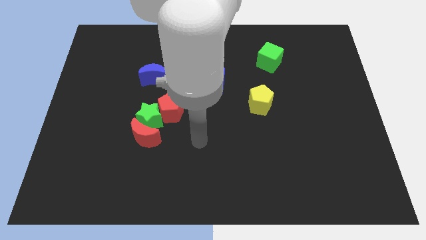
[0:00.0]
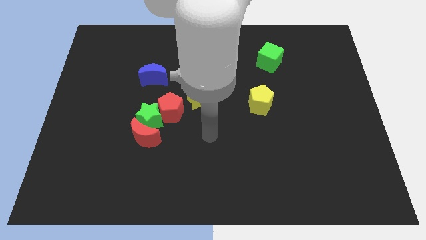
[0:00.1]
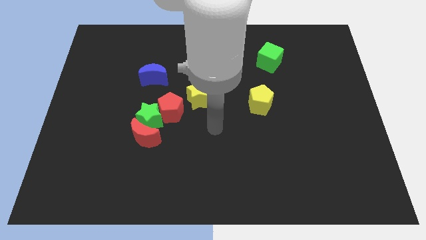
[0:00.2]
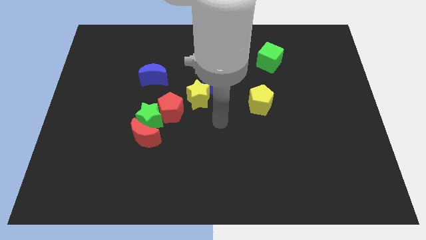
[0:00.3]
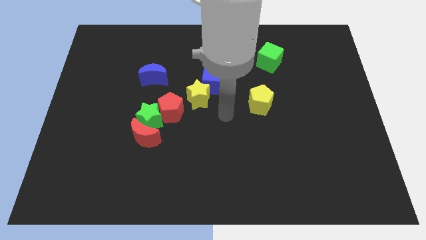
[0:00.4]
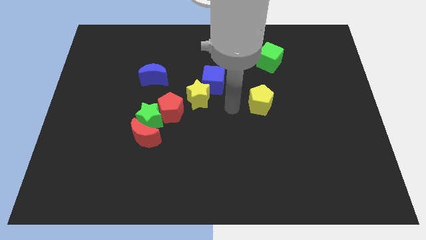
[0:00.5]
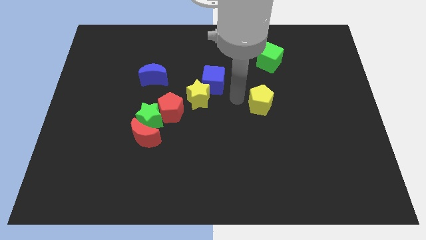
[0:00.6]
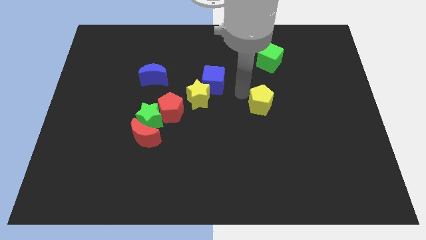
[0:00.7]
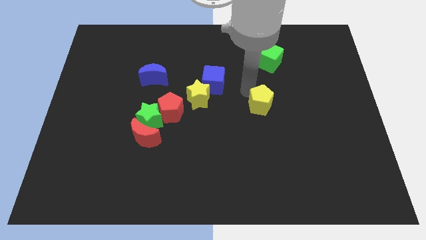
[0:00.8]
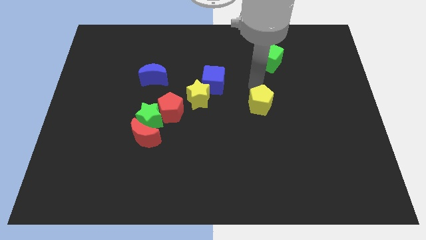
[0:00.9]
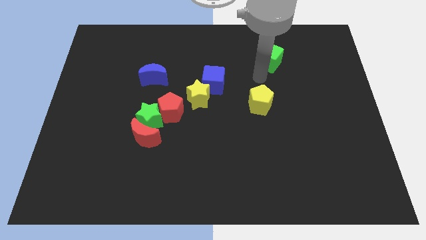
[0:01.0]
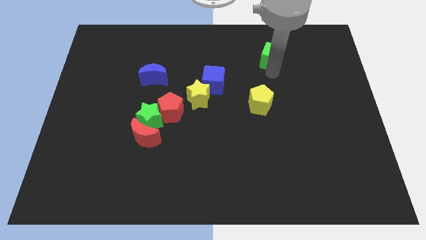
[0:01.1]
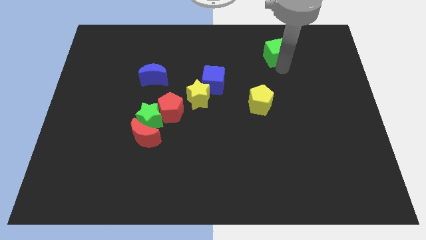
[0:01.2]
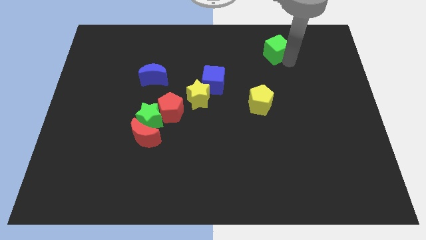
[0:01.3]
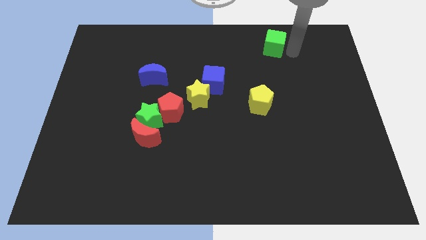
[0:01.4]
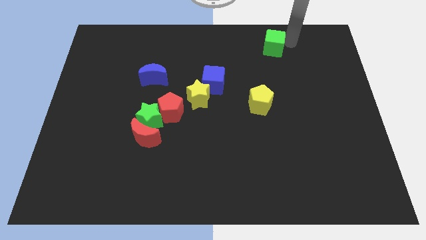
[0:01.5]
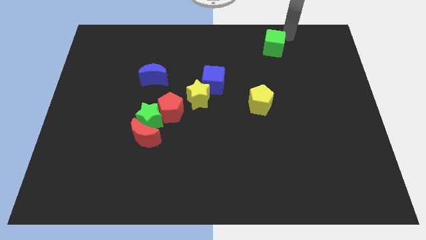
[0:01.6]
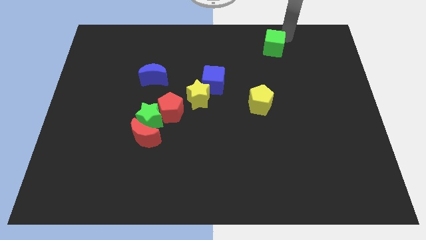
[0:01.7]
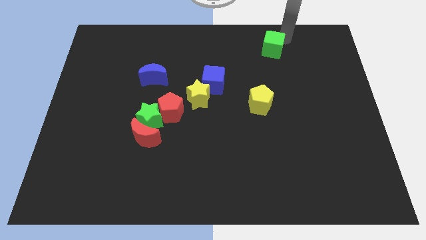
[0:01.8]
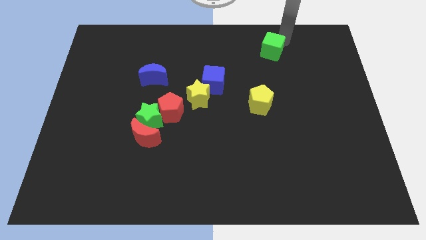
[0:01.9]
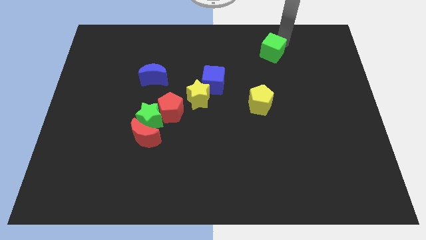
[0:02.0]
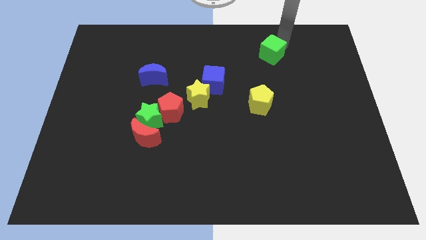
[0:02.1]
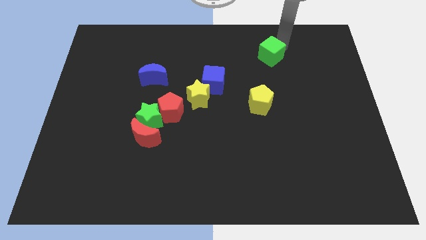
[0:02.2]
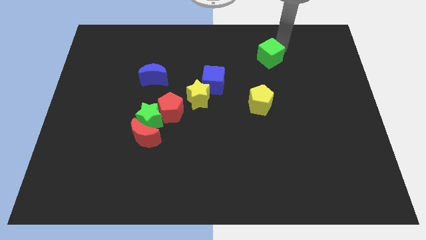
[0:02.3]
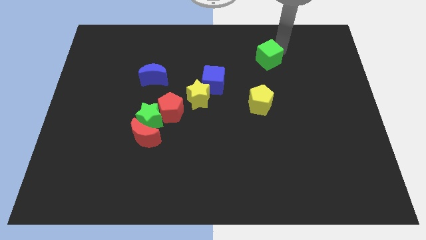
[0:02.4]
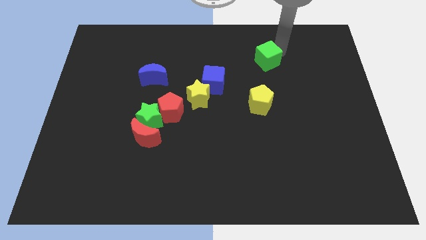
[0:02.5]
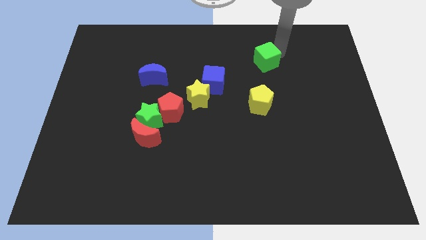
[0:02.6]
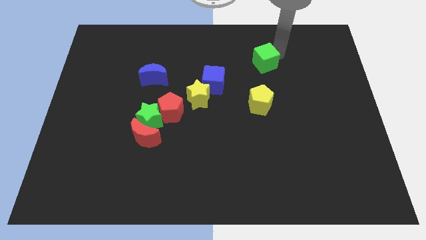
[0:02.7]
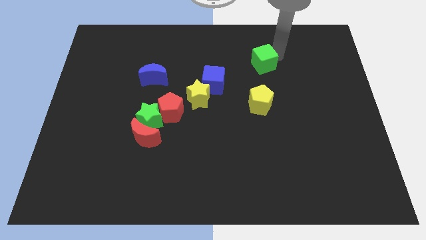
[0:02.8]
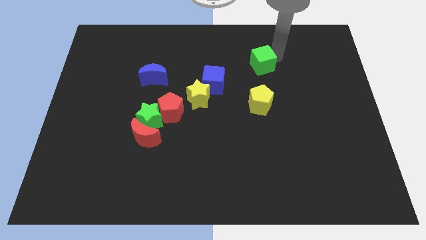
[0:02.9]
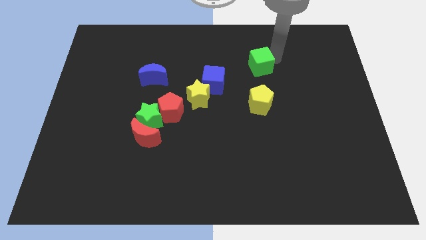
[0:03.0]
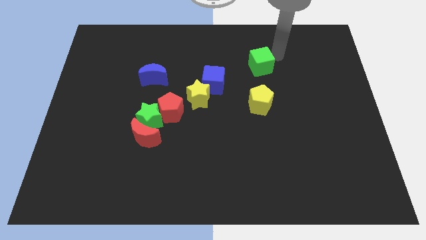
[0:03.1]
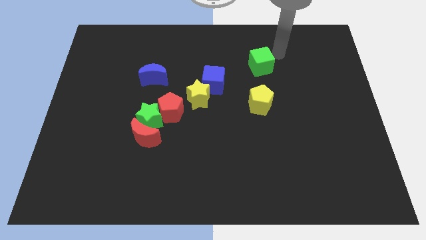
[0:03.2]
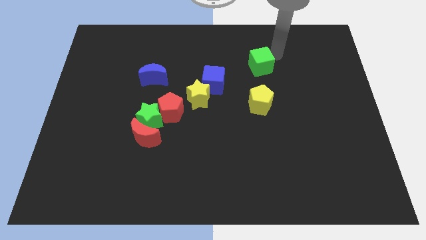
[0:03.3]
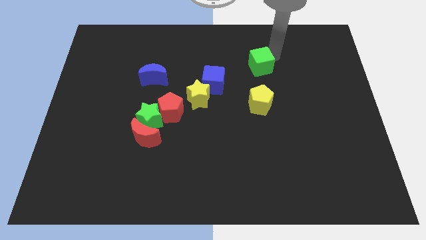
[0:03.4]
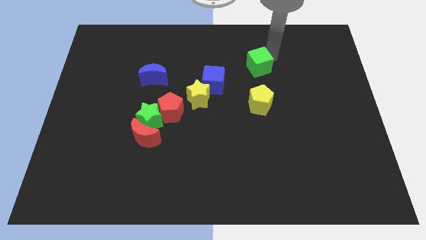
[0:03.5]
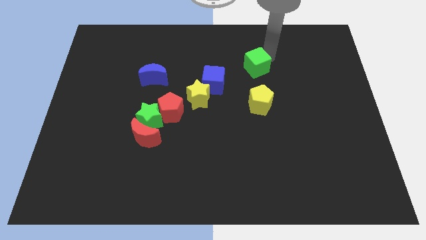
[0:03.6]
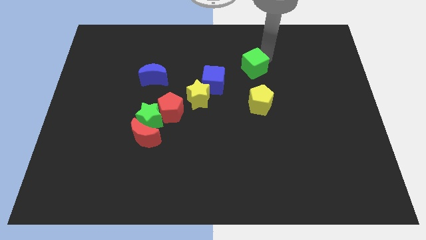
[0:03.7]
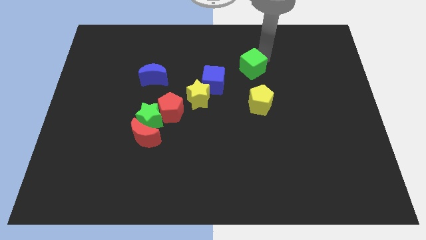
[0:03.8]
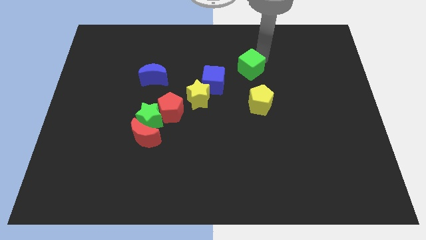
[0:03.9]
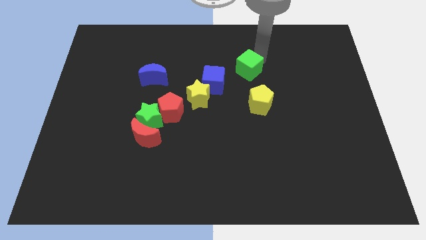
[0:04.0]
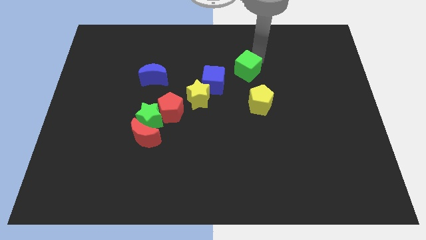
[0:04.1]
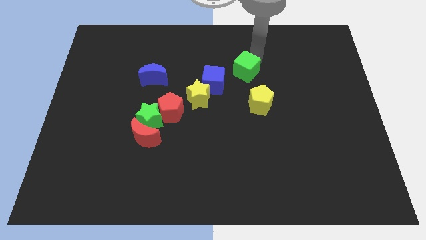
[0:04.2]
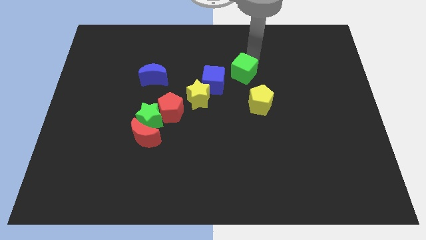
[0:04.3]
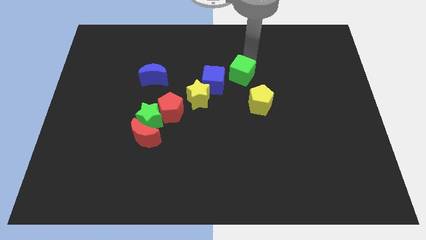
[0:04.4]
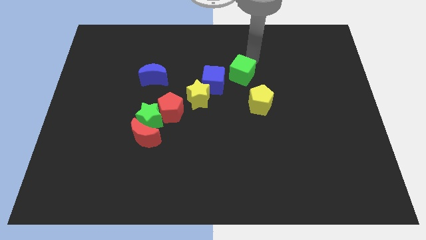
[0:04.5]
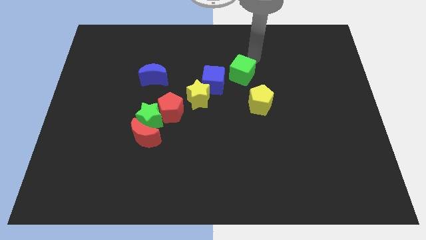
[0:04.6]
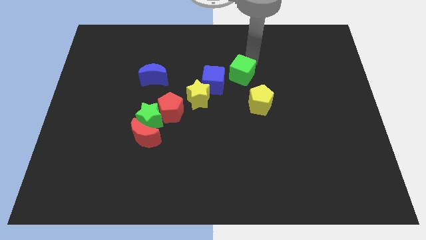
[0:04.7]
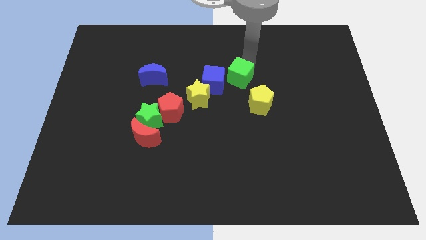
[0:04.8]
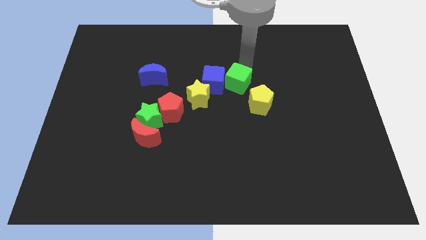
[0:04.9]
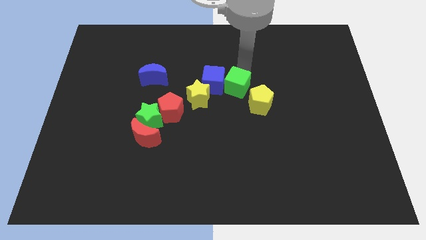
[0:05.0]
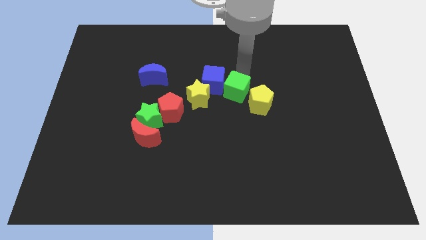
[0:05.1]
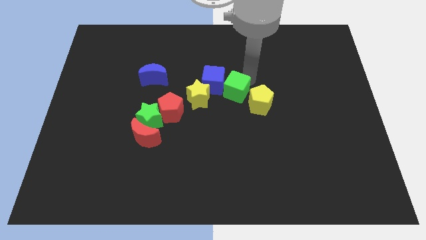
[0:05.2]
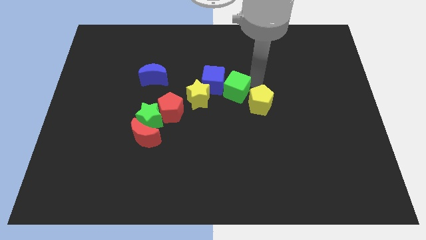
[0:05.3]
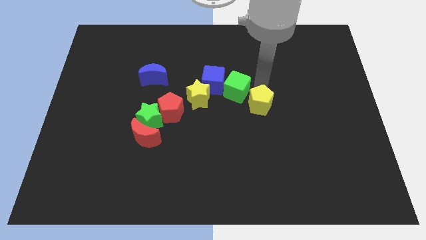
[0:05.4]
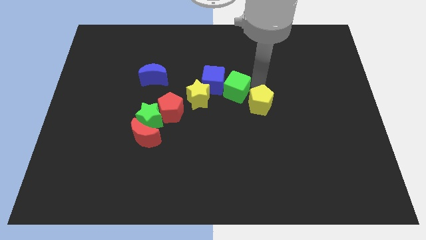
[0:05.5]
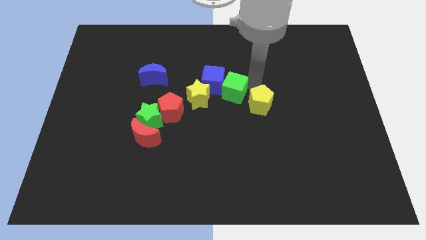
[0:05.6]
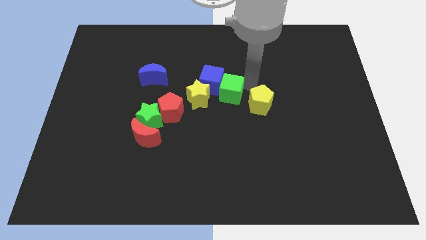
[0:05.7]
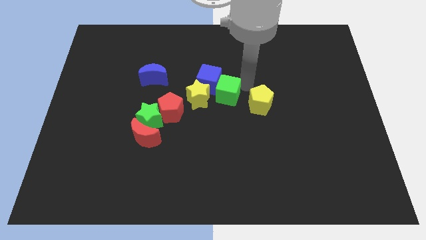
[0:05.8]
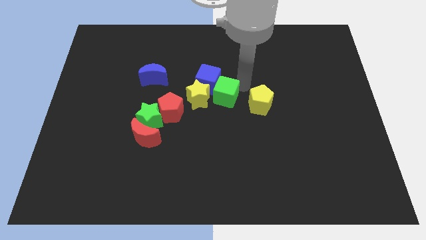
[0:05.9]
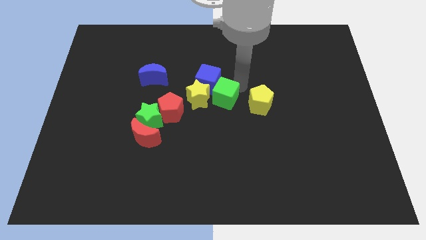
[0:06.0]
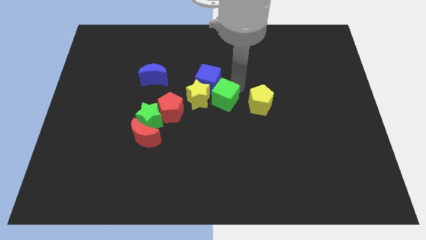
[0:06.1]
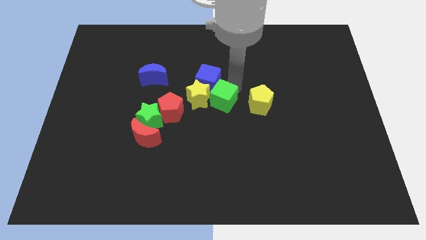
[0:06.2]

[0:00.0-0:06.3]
slide the green cube close to the yellow star
